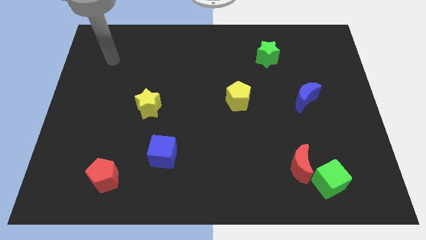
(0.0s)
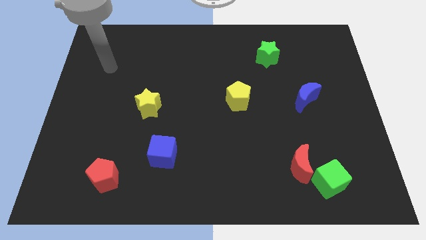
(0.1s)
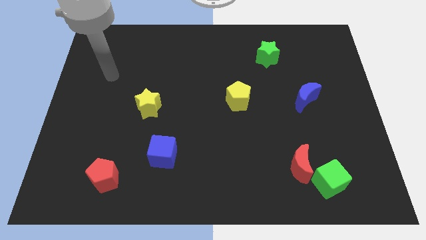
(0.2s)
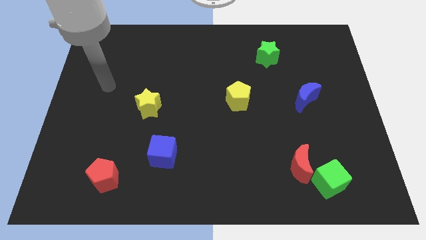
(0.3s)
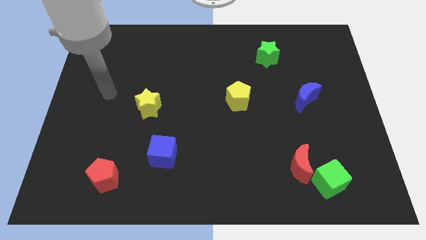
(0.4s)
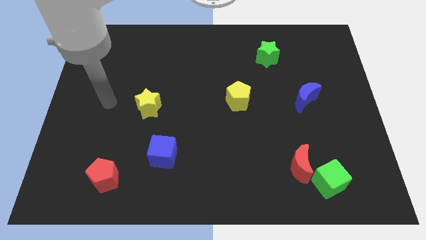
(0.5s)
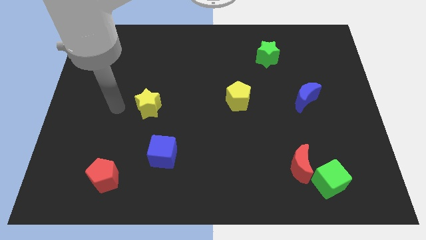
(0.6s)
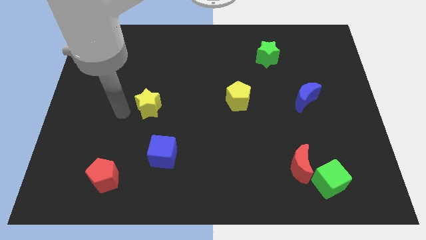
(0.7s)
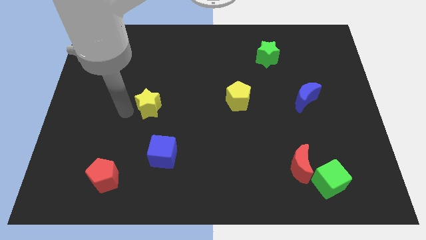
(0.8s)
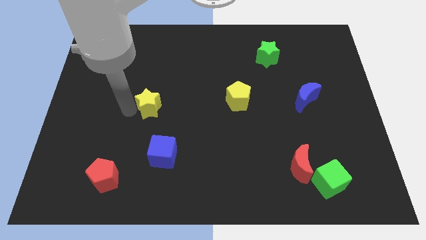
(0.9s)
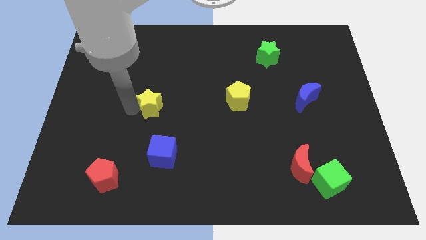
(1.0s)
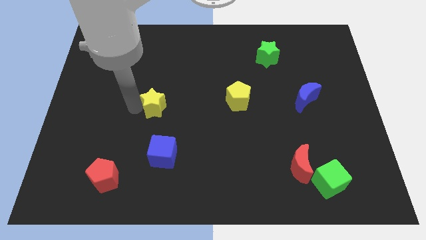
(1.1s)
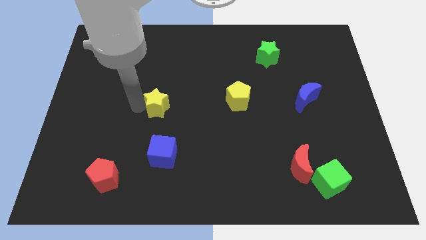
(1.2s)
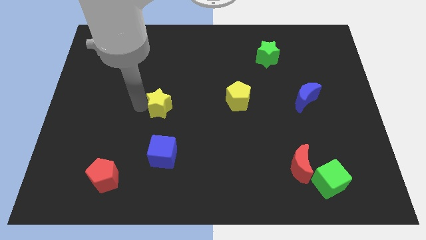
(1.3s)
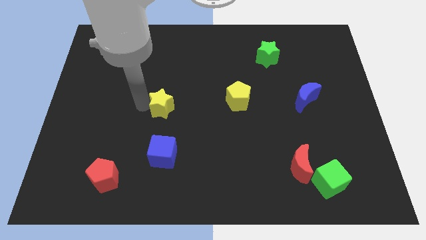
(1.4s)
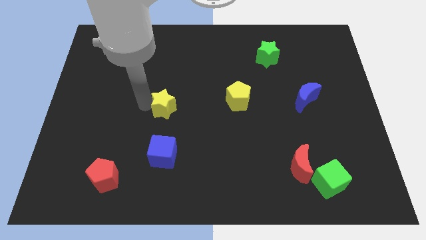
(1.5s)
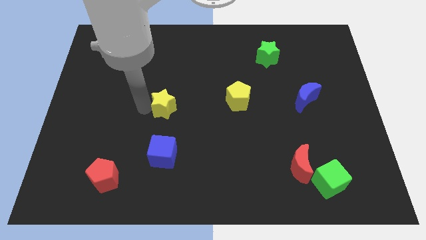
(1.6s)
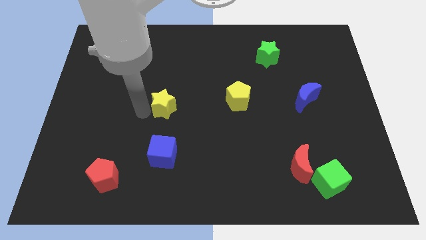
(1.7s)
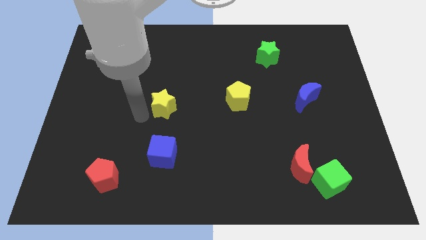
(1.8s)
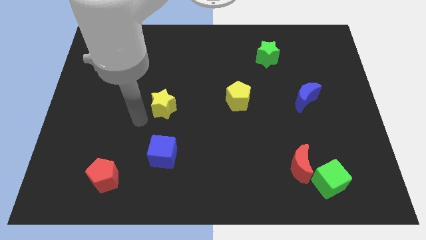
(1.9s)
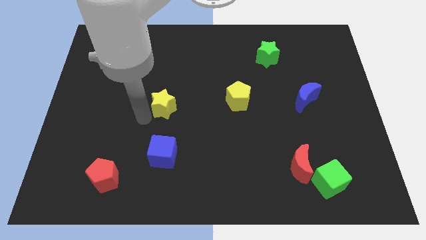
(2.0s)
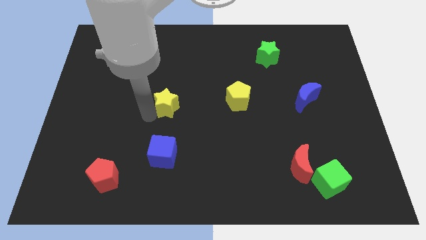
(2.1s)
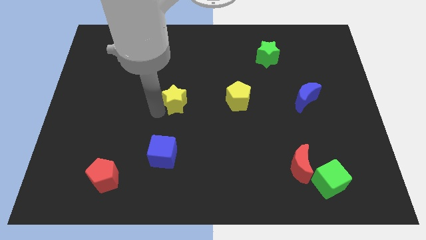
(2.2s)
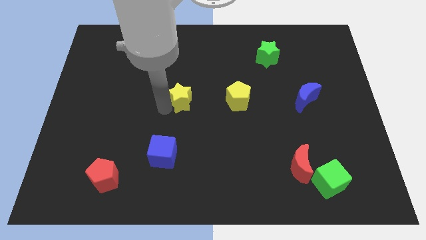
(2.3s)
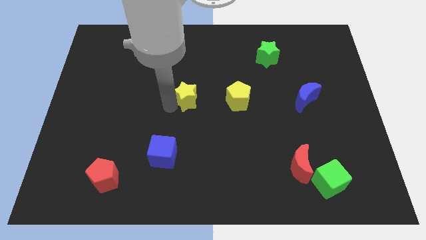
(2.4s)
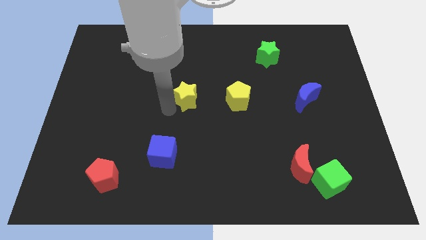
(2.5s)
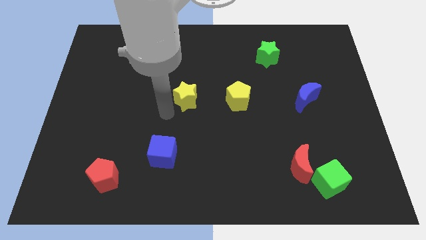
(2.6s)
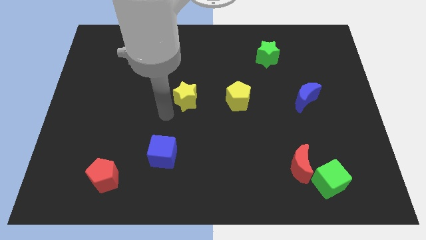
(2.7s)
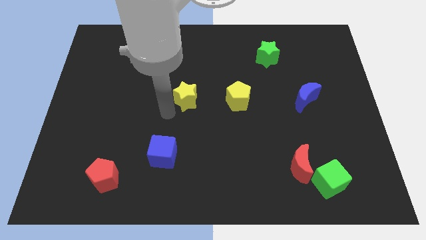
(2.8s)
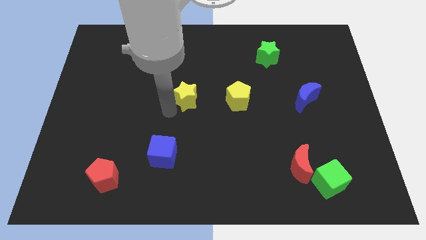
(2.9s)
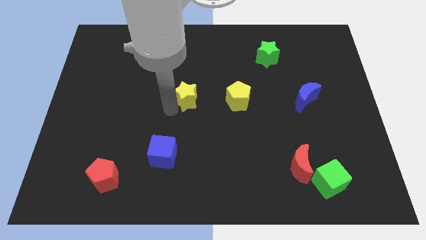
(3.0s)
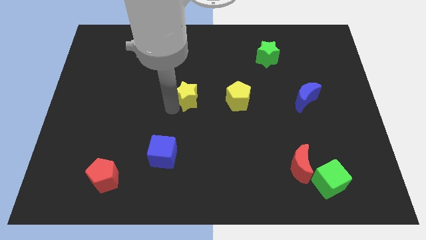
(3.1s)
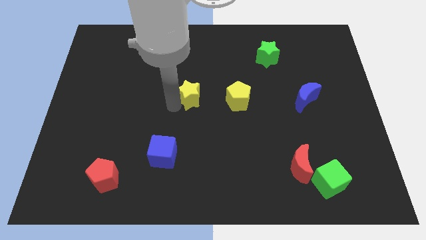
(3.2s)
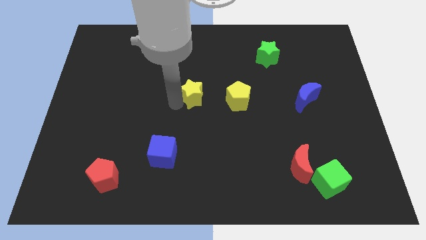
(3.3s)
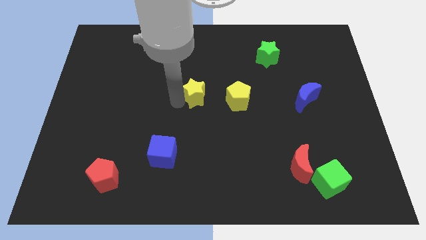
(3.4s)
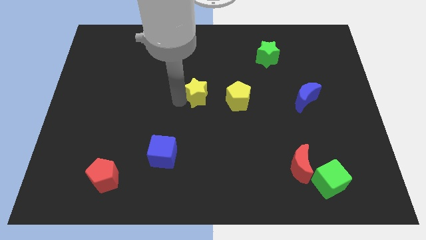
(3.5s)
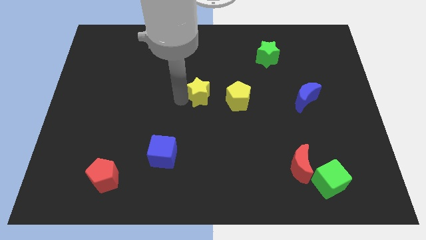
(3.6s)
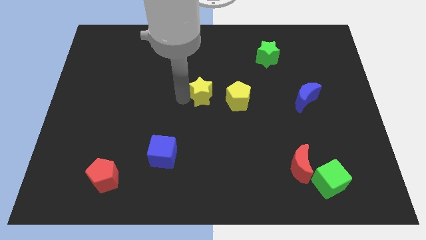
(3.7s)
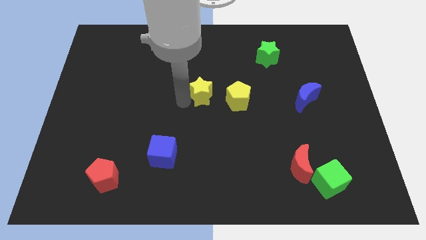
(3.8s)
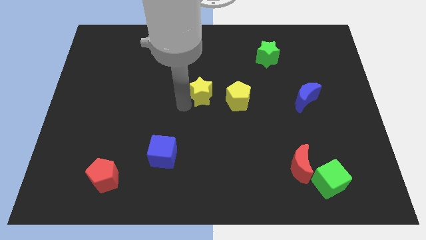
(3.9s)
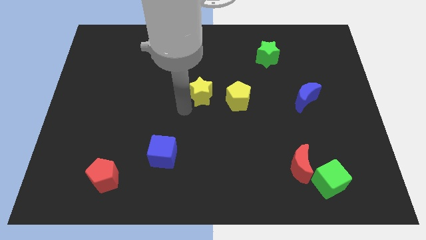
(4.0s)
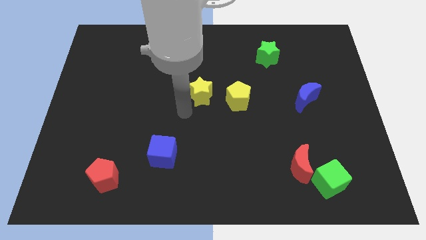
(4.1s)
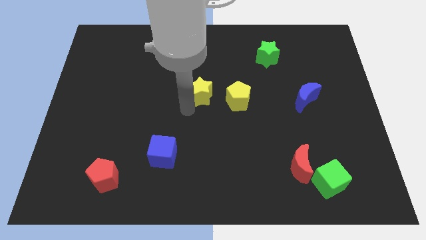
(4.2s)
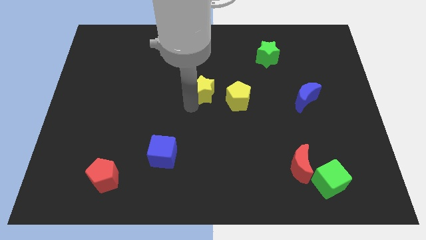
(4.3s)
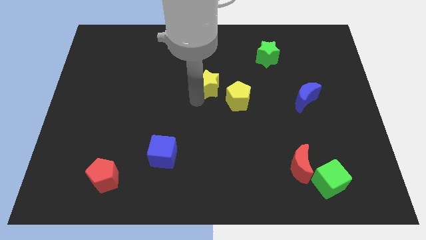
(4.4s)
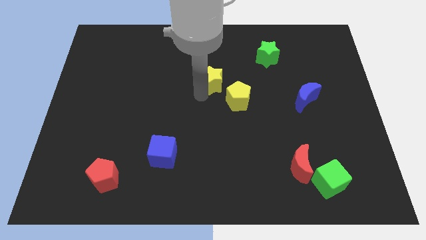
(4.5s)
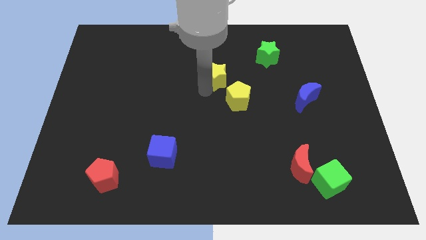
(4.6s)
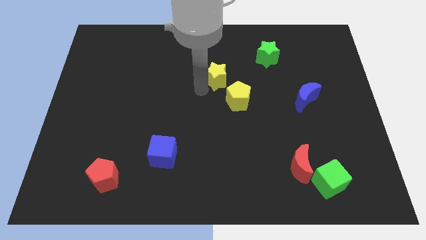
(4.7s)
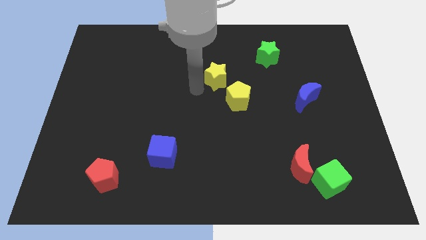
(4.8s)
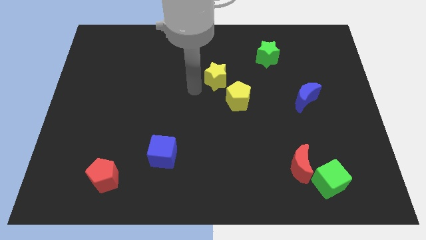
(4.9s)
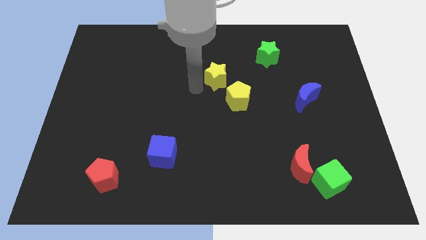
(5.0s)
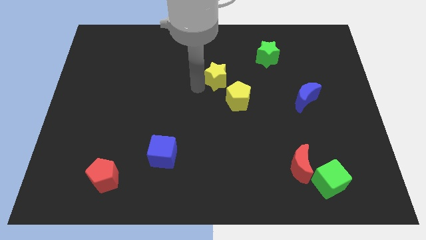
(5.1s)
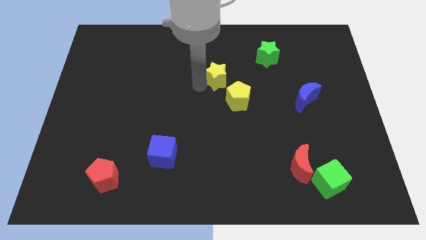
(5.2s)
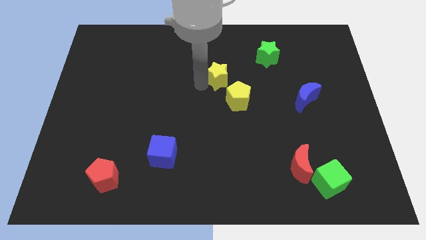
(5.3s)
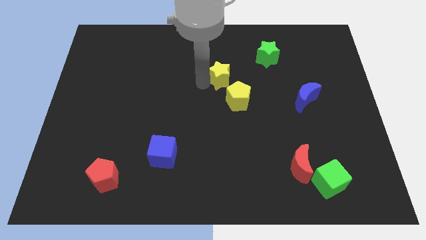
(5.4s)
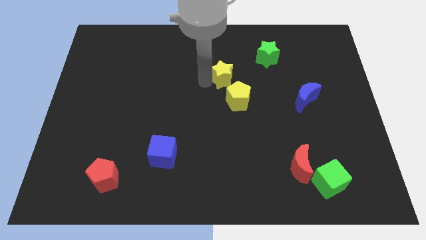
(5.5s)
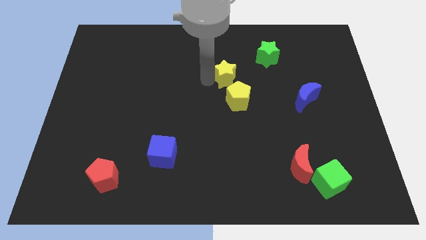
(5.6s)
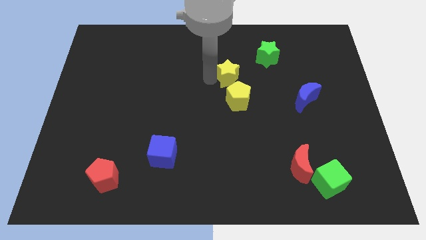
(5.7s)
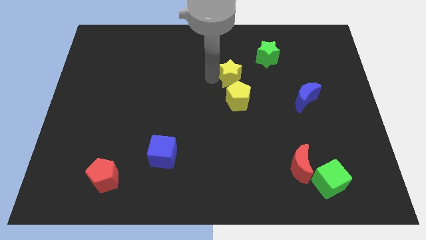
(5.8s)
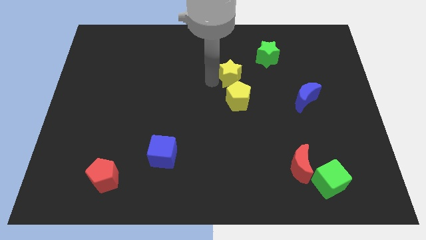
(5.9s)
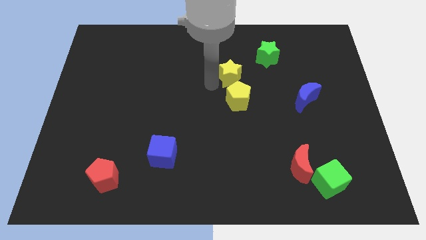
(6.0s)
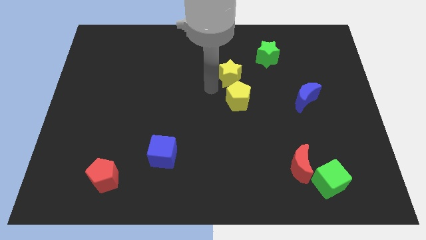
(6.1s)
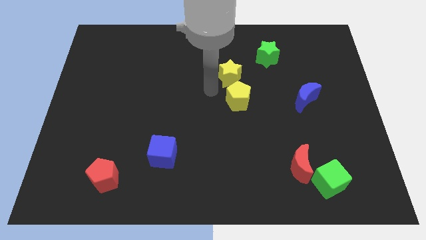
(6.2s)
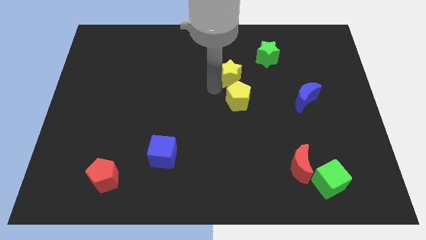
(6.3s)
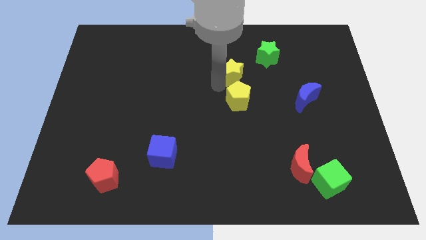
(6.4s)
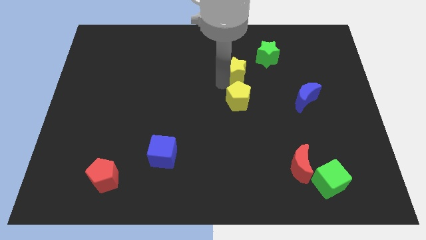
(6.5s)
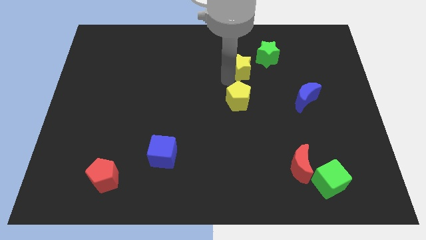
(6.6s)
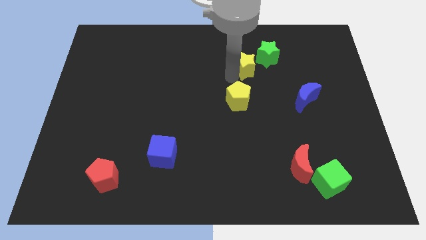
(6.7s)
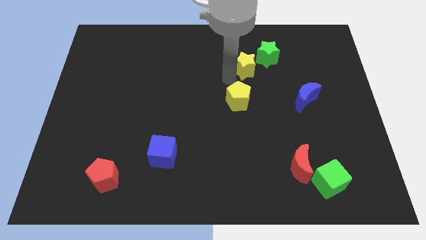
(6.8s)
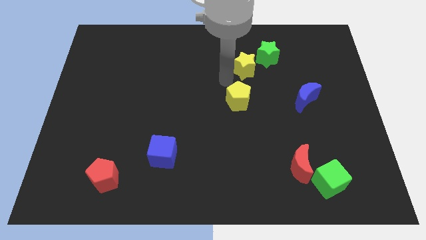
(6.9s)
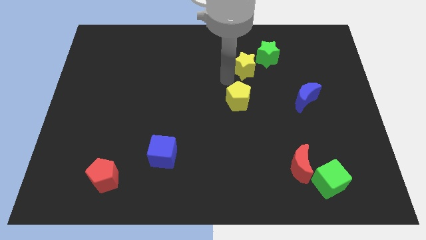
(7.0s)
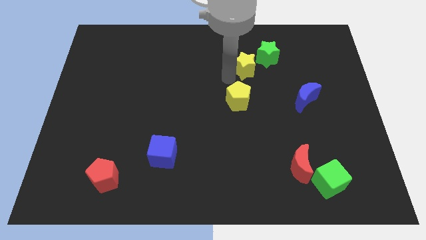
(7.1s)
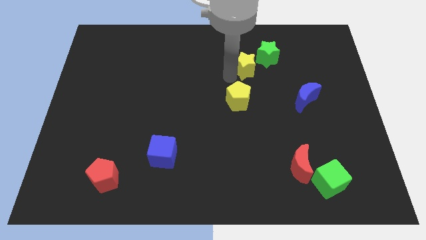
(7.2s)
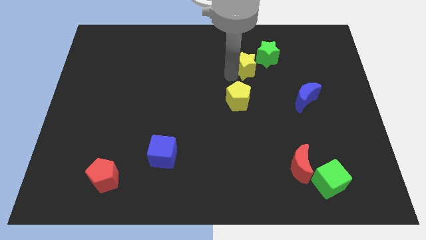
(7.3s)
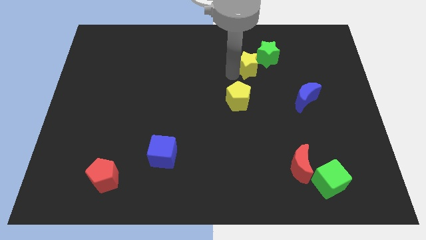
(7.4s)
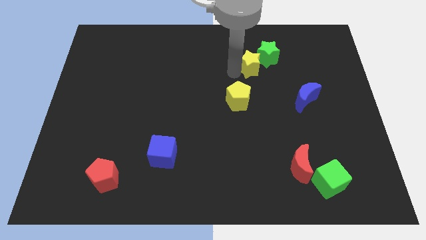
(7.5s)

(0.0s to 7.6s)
move the yellow star close to the green star
